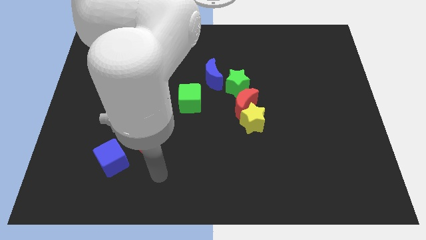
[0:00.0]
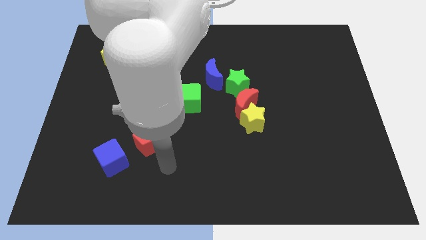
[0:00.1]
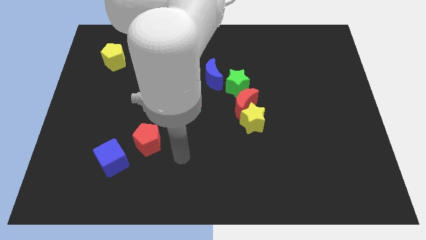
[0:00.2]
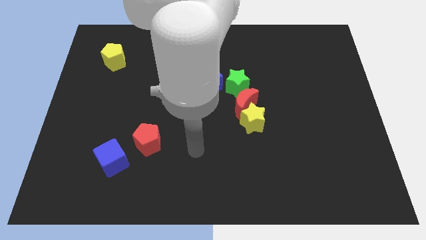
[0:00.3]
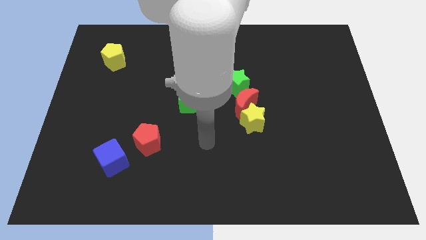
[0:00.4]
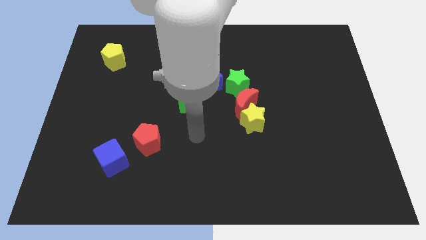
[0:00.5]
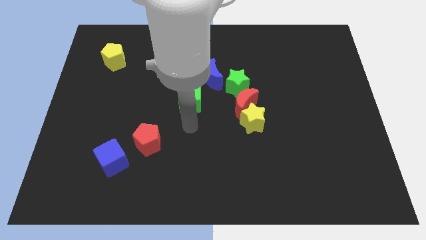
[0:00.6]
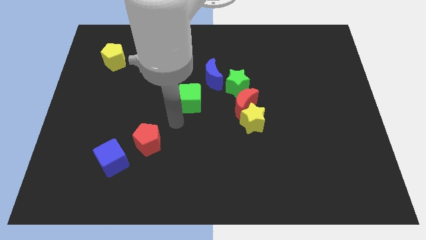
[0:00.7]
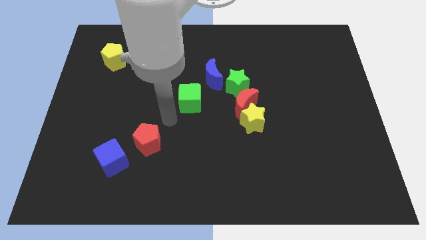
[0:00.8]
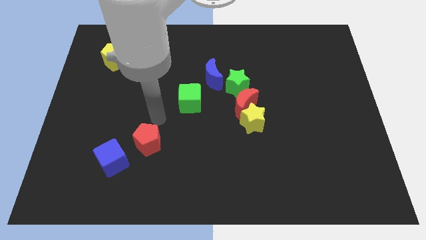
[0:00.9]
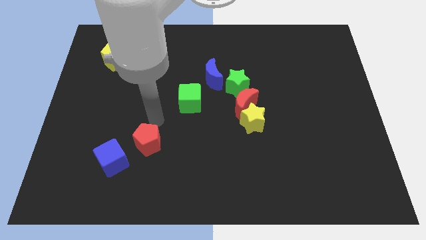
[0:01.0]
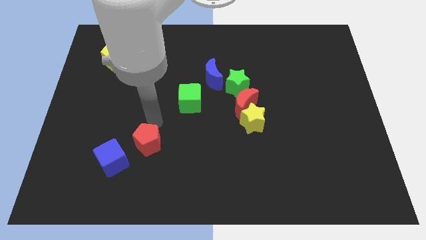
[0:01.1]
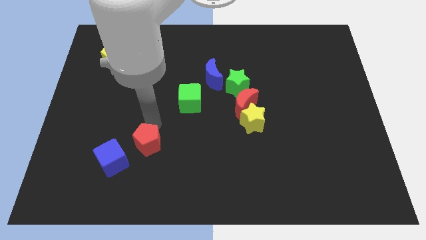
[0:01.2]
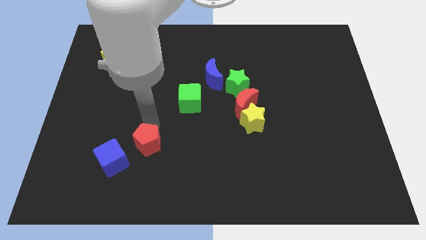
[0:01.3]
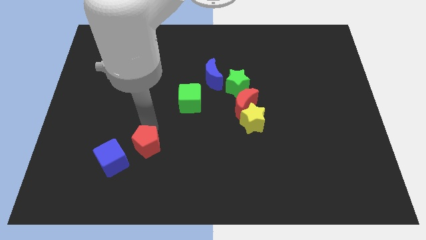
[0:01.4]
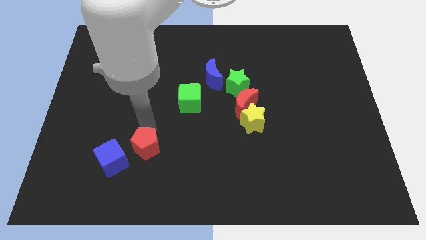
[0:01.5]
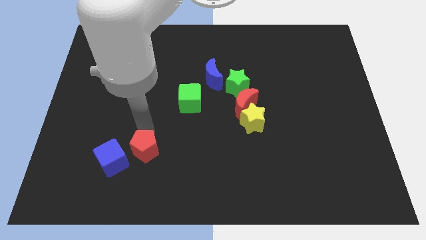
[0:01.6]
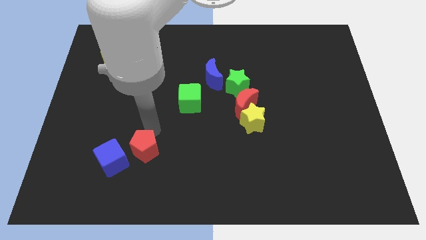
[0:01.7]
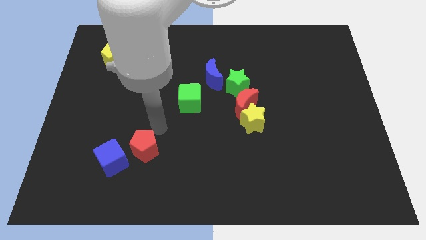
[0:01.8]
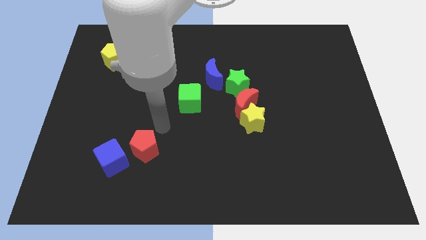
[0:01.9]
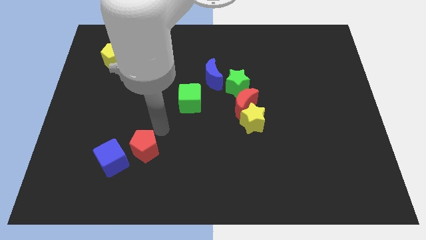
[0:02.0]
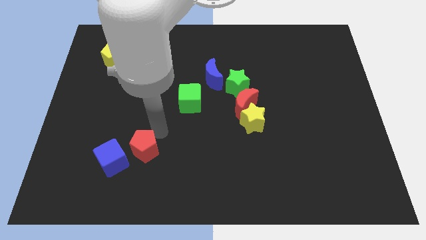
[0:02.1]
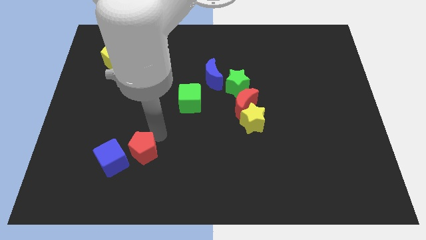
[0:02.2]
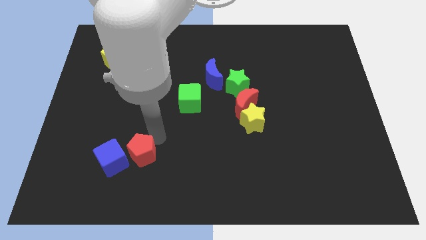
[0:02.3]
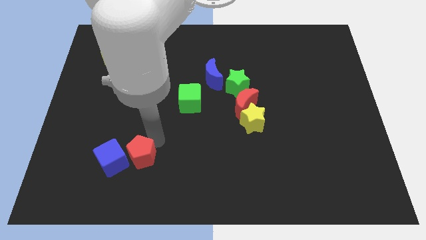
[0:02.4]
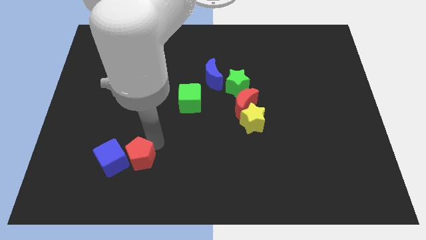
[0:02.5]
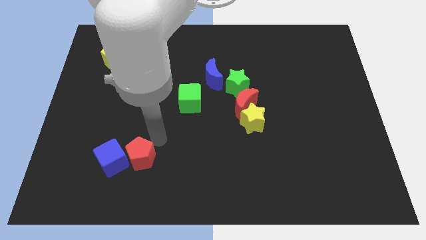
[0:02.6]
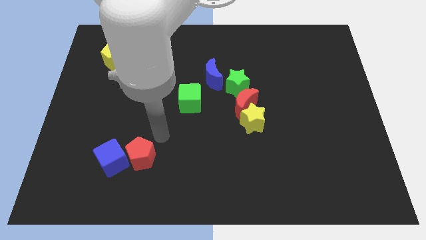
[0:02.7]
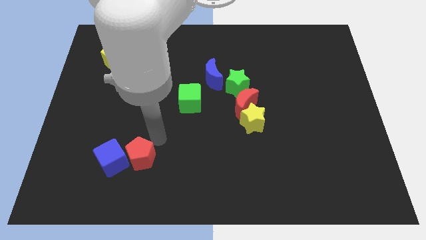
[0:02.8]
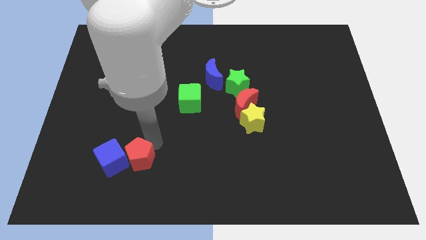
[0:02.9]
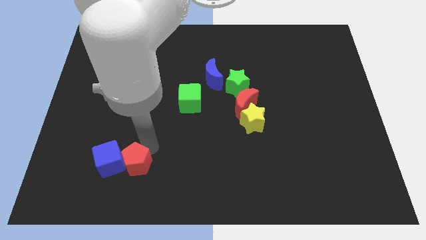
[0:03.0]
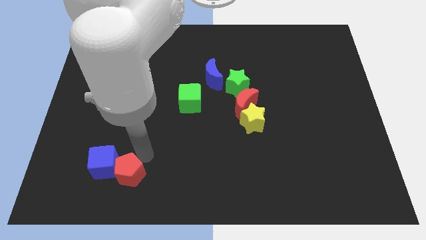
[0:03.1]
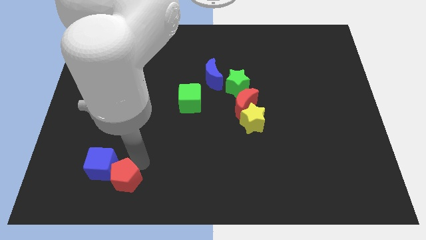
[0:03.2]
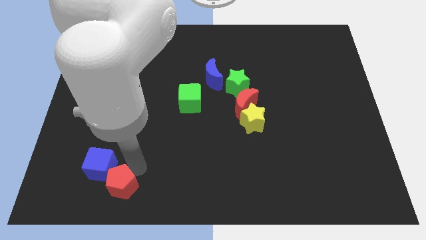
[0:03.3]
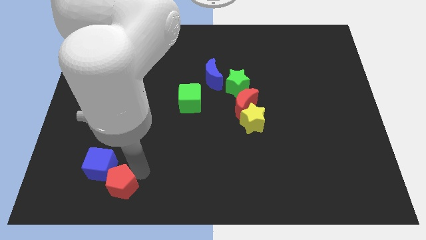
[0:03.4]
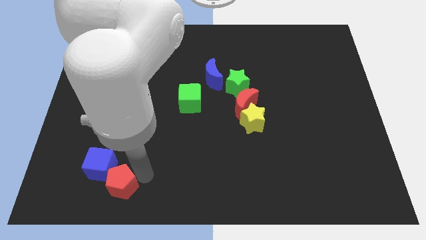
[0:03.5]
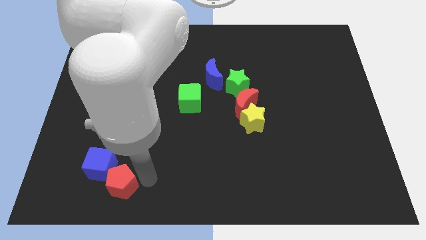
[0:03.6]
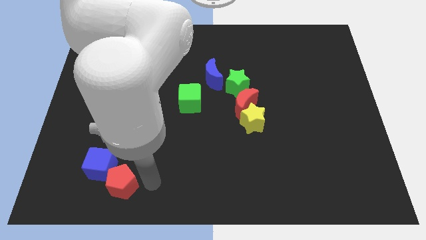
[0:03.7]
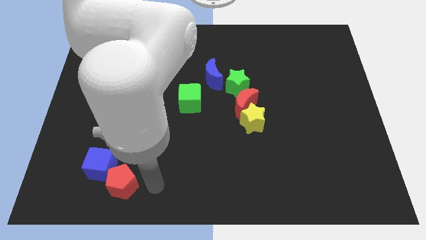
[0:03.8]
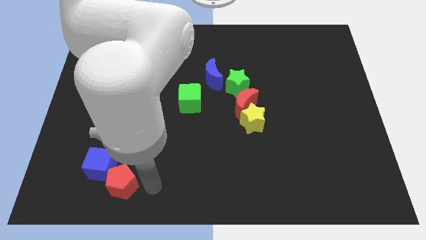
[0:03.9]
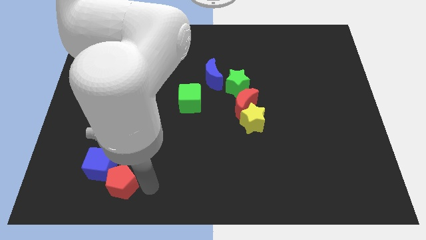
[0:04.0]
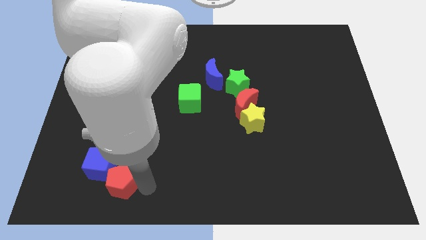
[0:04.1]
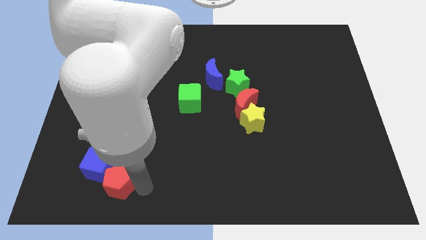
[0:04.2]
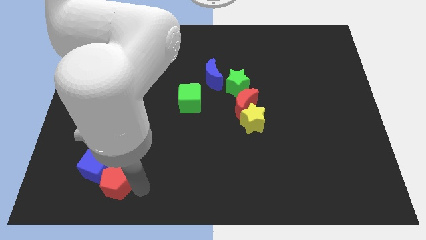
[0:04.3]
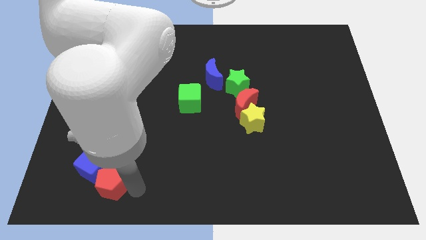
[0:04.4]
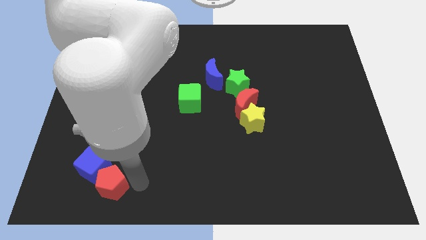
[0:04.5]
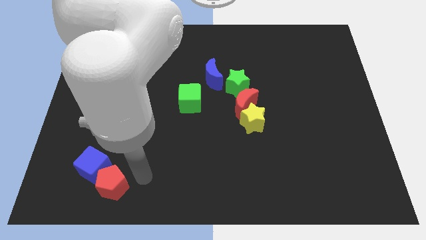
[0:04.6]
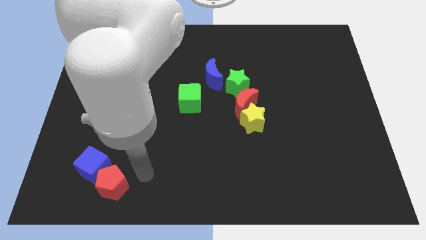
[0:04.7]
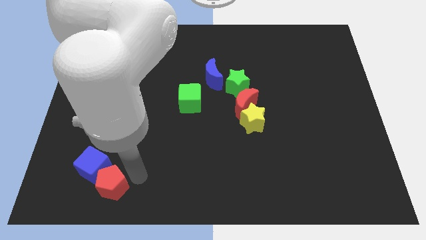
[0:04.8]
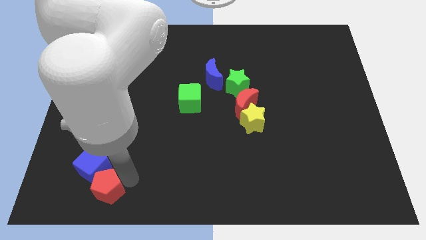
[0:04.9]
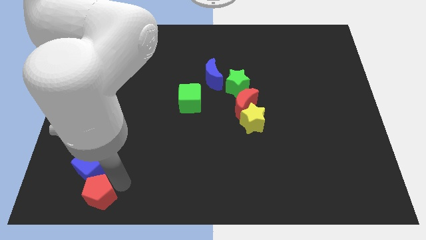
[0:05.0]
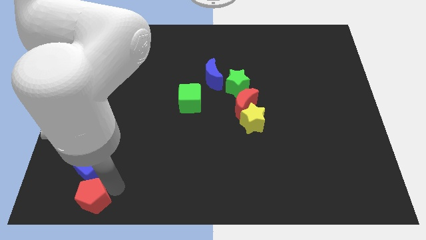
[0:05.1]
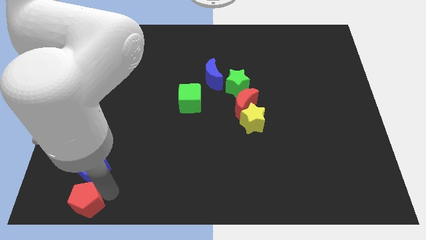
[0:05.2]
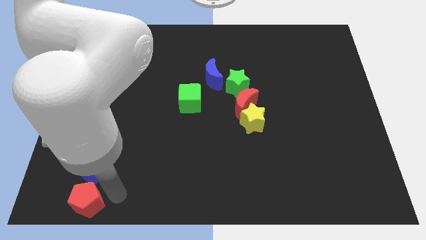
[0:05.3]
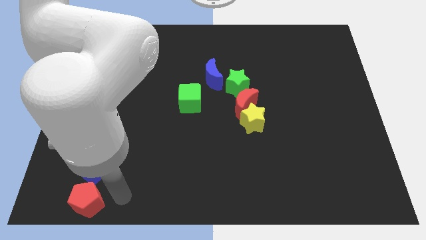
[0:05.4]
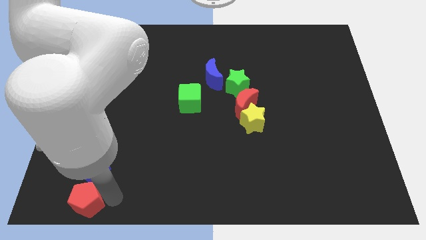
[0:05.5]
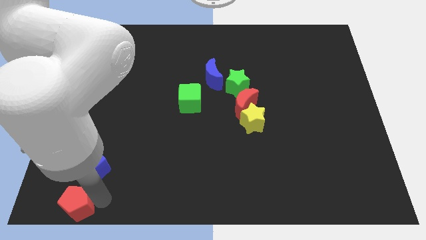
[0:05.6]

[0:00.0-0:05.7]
push the red pentagon to the bottom left of the board

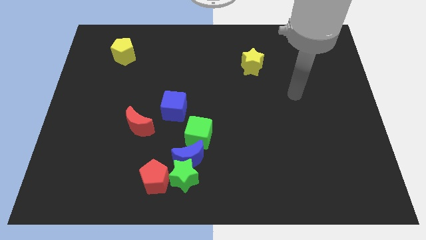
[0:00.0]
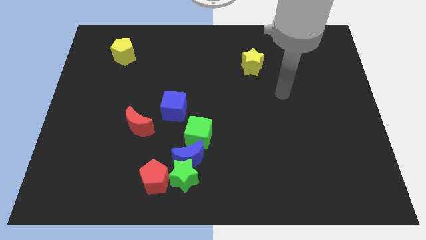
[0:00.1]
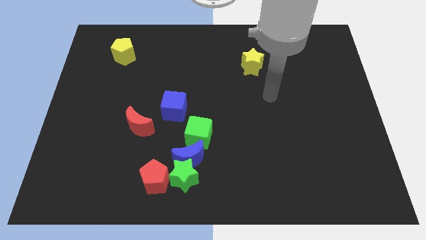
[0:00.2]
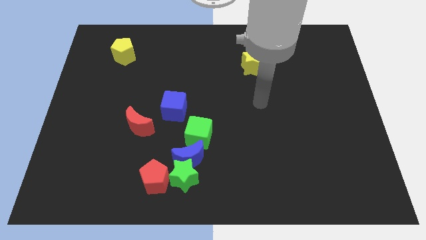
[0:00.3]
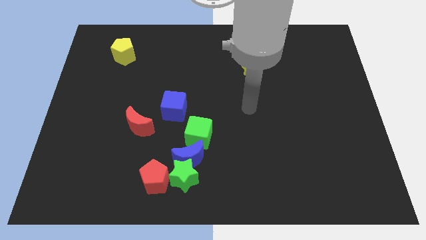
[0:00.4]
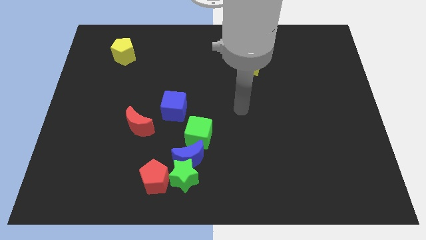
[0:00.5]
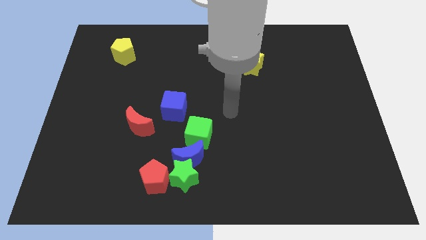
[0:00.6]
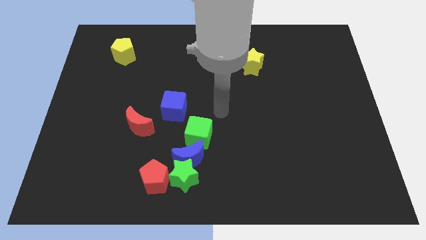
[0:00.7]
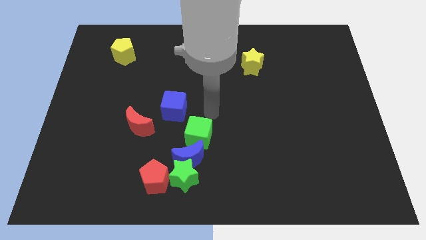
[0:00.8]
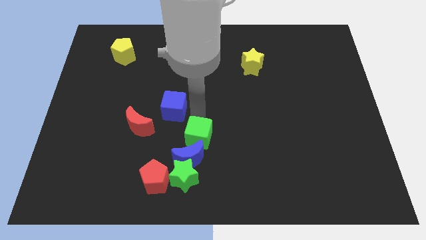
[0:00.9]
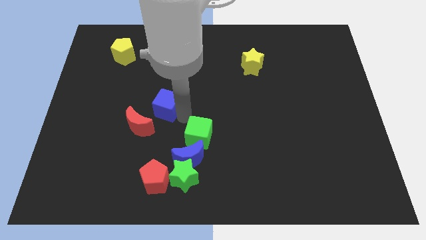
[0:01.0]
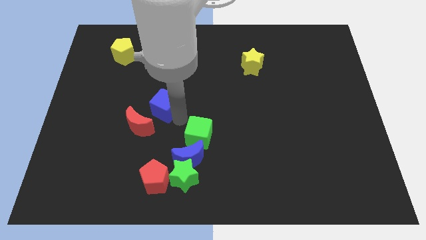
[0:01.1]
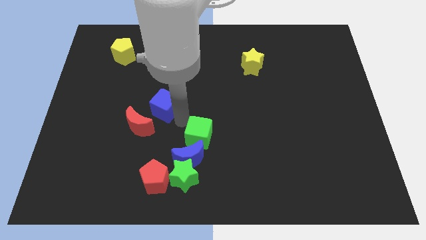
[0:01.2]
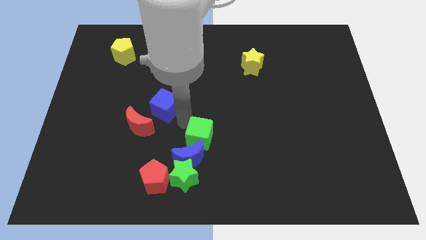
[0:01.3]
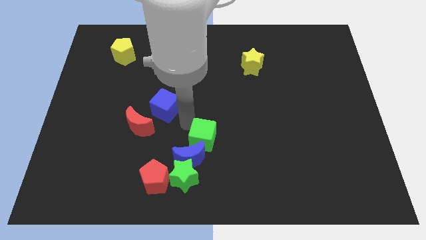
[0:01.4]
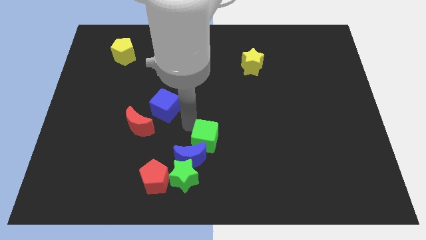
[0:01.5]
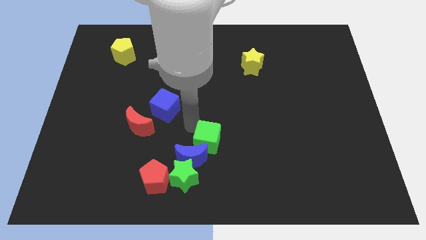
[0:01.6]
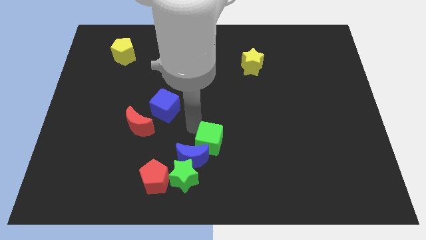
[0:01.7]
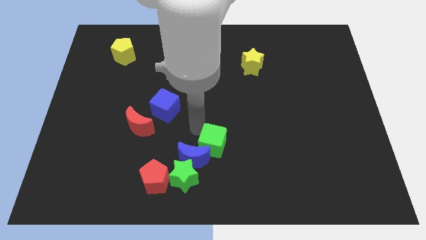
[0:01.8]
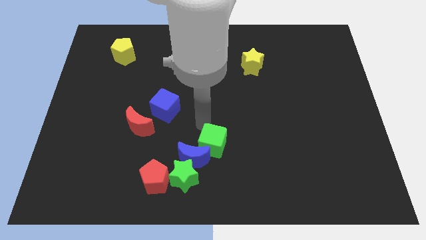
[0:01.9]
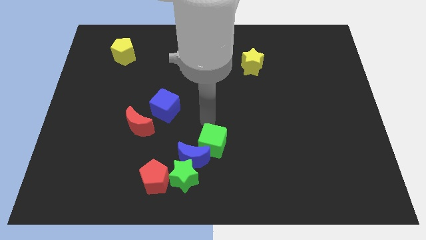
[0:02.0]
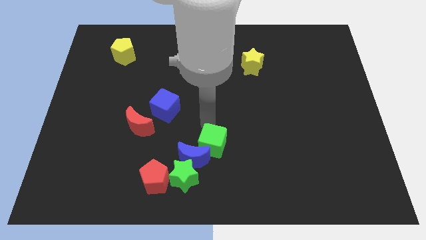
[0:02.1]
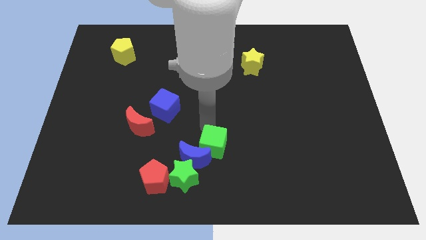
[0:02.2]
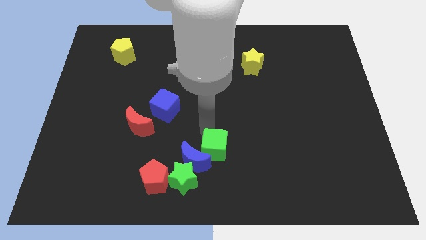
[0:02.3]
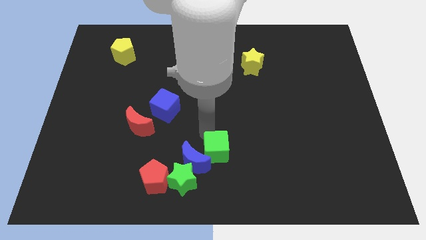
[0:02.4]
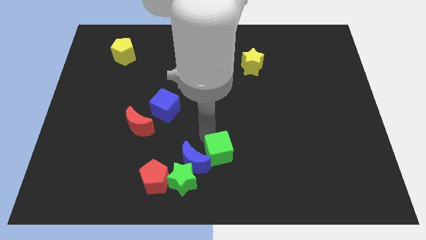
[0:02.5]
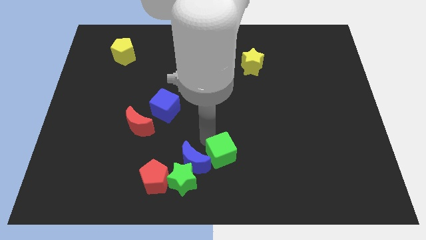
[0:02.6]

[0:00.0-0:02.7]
slide the green cube to the bottom
